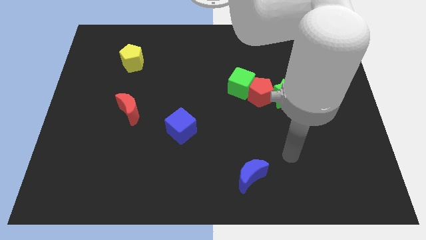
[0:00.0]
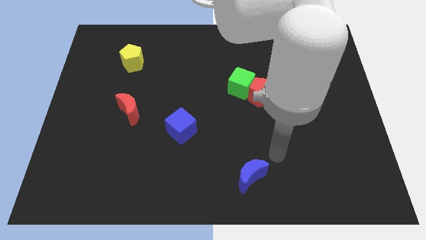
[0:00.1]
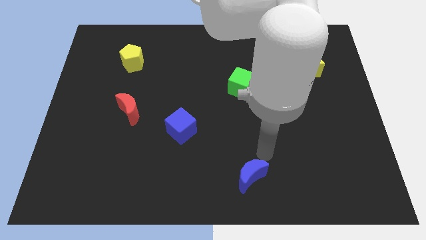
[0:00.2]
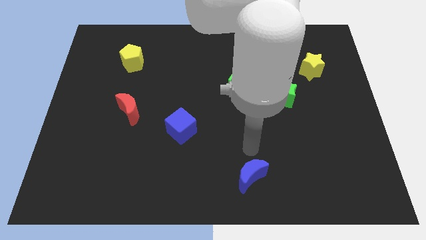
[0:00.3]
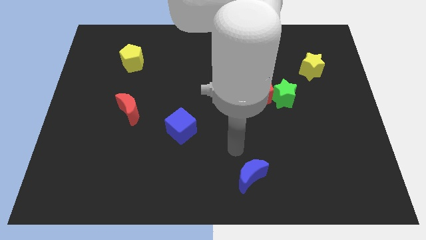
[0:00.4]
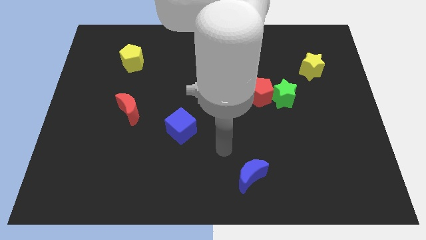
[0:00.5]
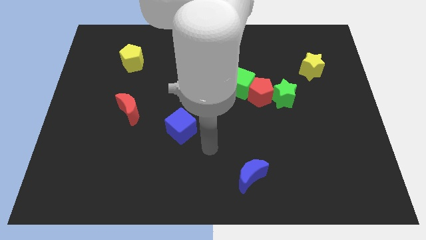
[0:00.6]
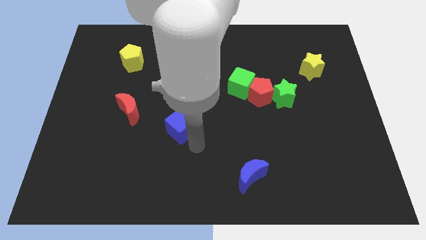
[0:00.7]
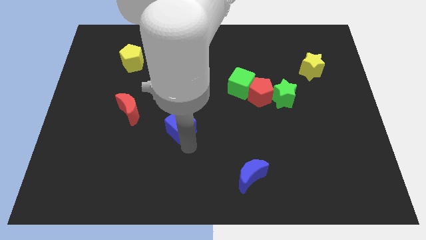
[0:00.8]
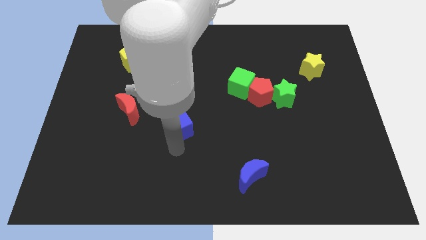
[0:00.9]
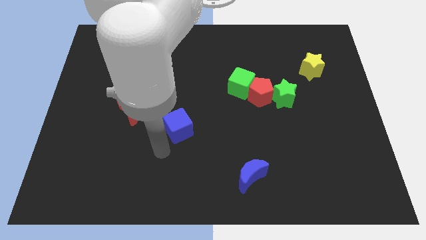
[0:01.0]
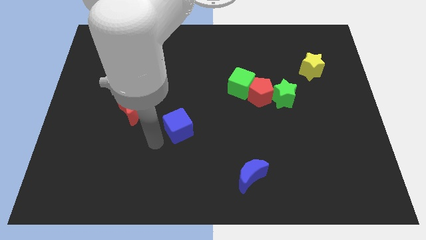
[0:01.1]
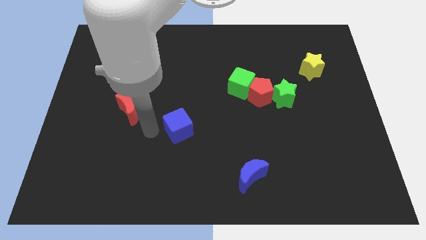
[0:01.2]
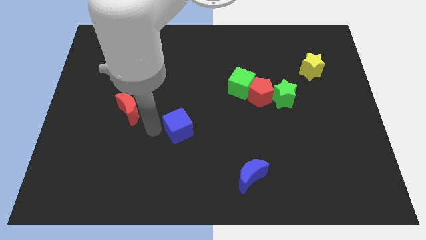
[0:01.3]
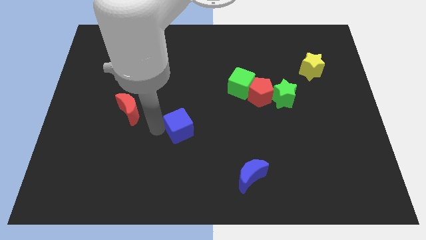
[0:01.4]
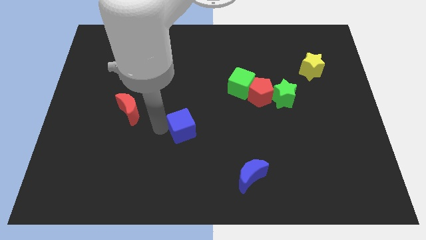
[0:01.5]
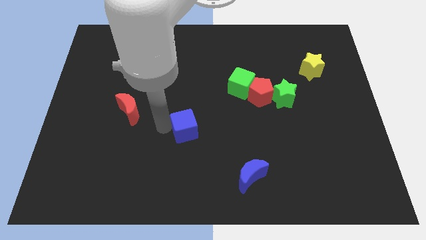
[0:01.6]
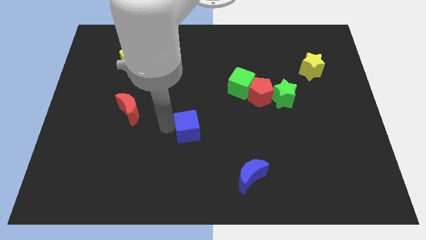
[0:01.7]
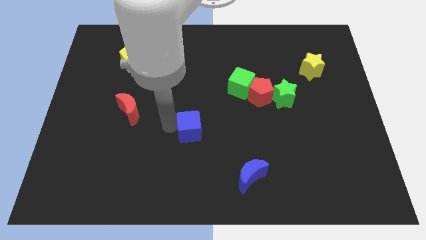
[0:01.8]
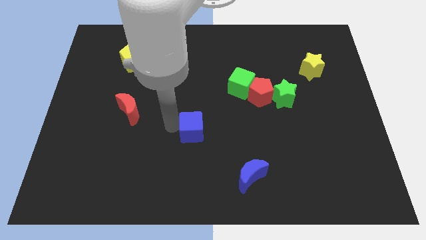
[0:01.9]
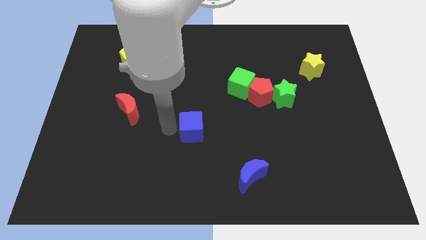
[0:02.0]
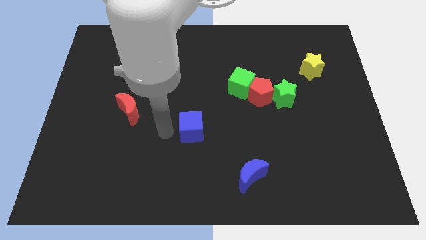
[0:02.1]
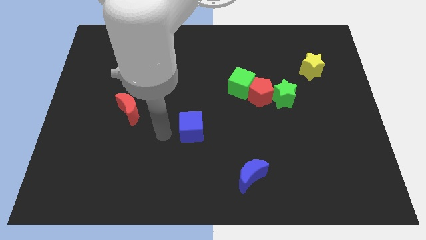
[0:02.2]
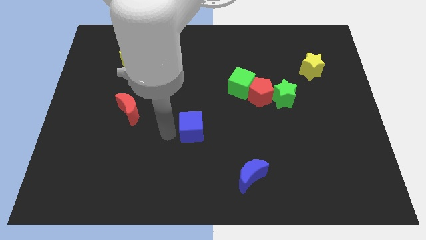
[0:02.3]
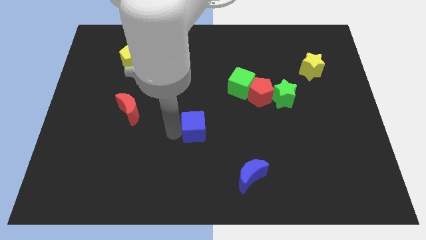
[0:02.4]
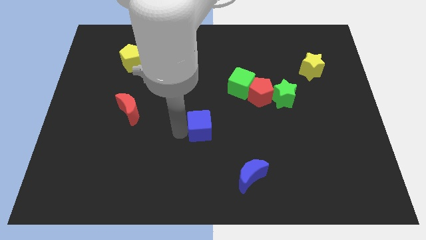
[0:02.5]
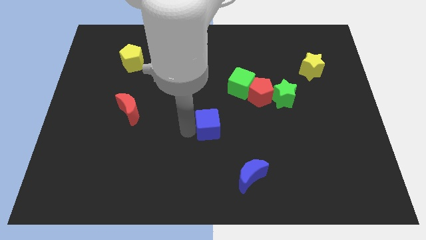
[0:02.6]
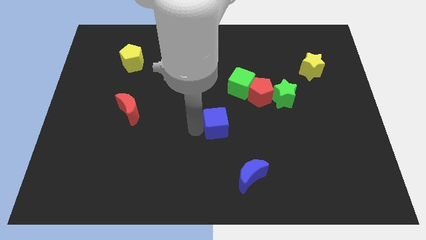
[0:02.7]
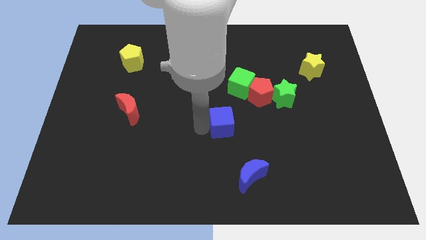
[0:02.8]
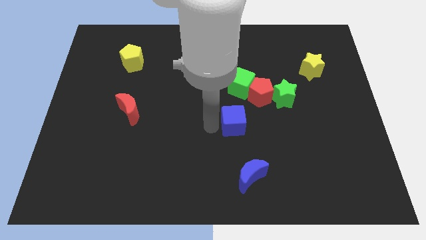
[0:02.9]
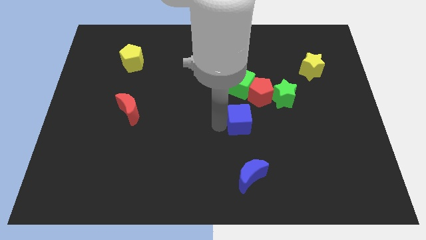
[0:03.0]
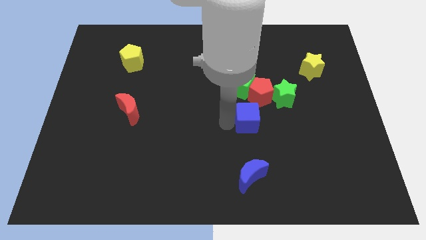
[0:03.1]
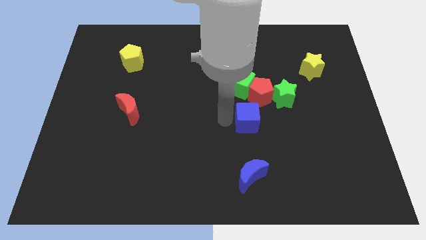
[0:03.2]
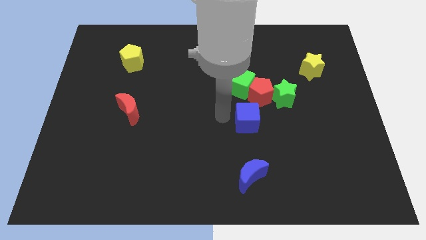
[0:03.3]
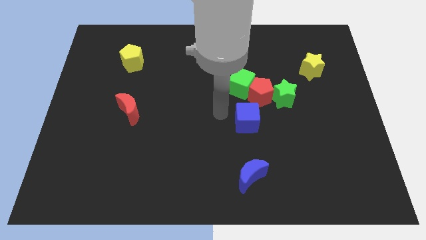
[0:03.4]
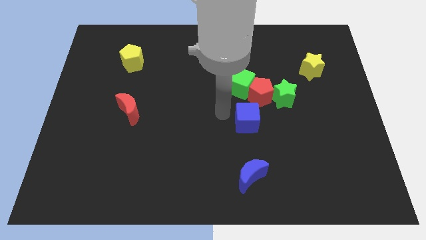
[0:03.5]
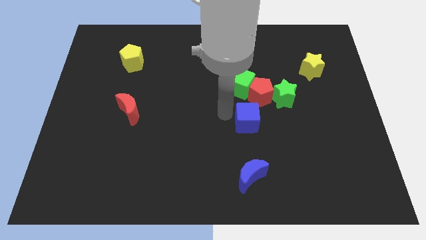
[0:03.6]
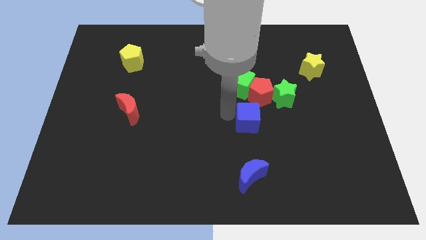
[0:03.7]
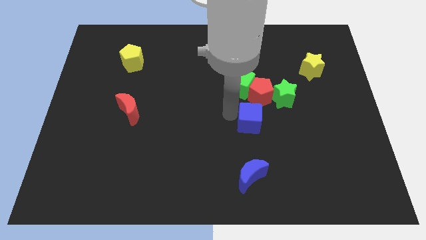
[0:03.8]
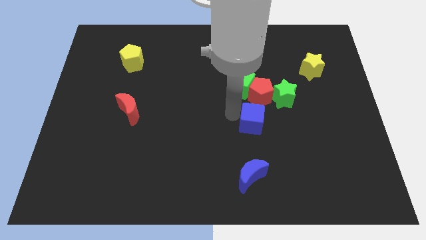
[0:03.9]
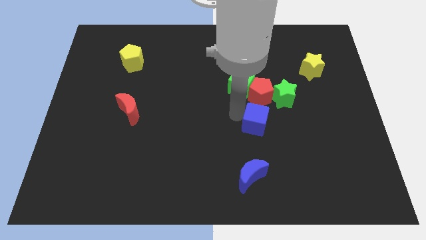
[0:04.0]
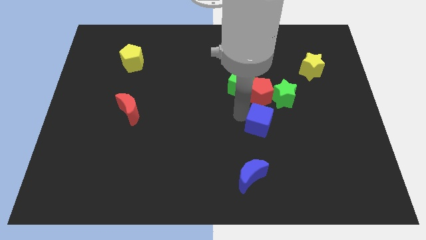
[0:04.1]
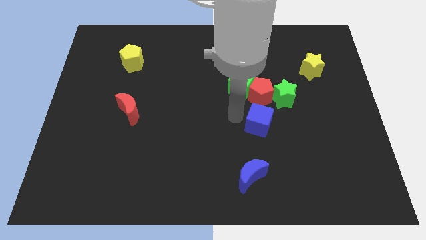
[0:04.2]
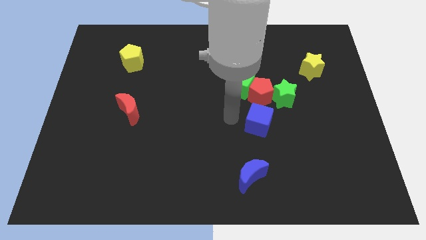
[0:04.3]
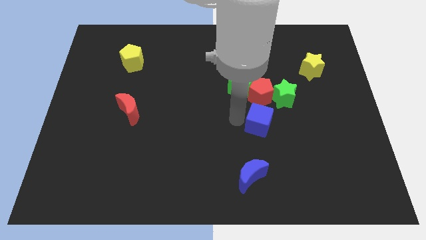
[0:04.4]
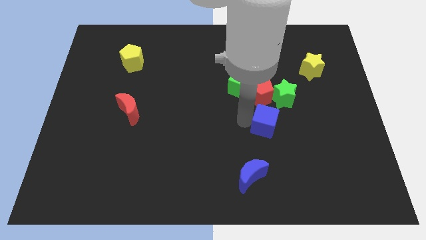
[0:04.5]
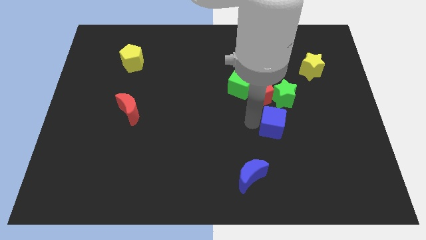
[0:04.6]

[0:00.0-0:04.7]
push the blue cube to the right

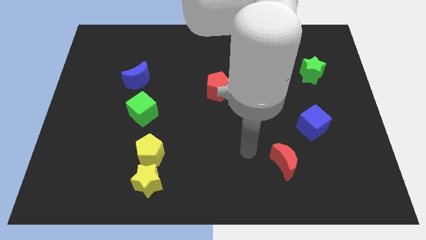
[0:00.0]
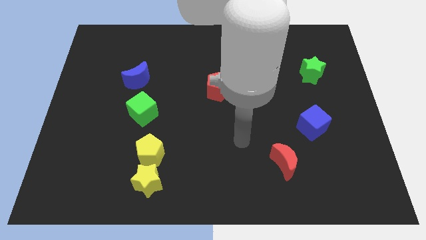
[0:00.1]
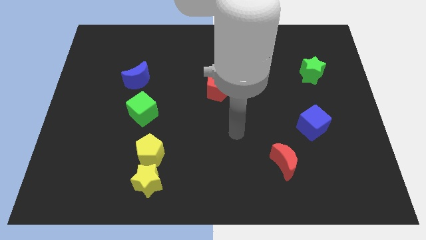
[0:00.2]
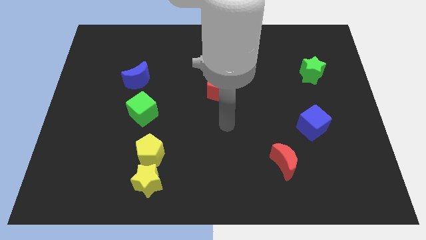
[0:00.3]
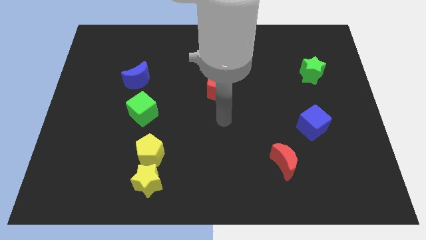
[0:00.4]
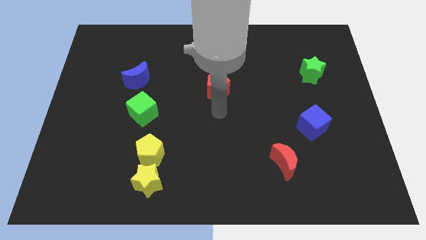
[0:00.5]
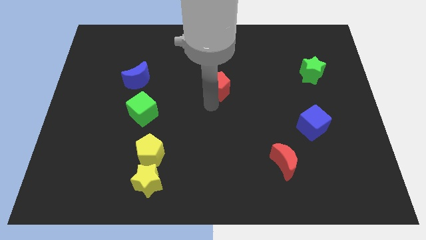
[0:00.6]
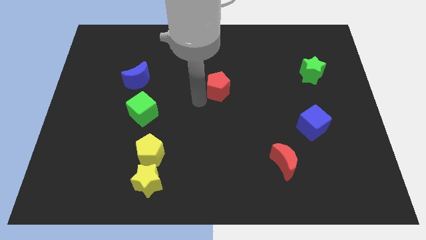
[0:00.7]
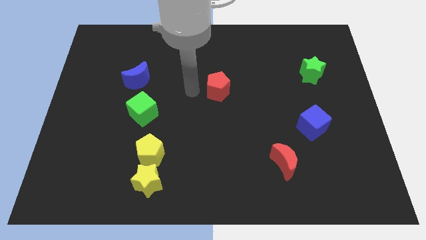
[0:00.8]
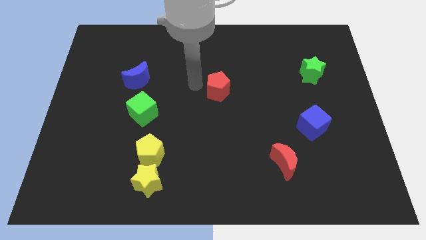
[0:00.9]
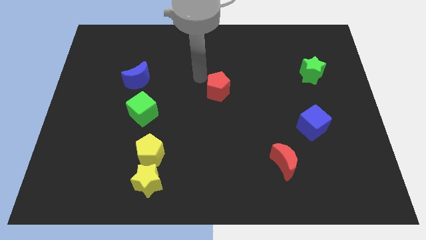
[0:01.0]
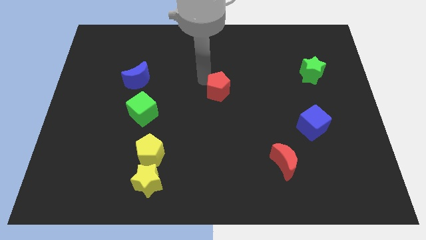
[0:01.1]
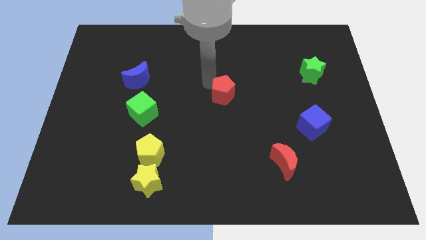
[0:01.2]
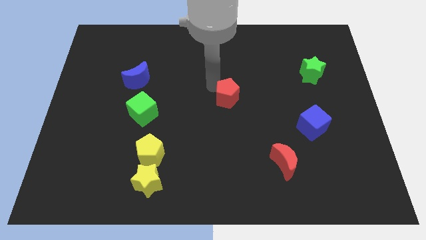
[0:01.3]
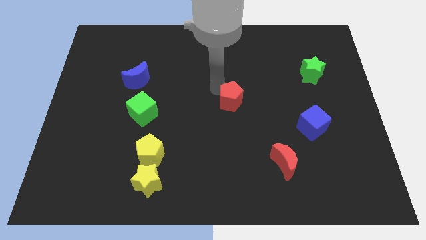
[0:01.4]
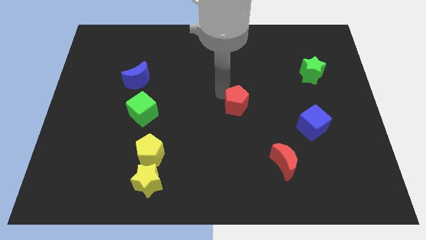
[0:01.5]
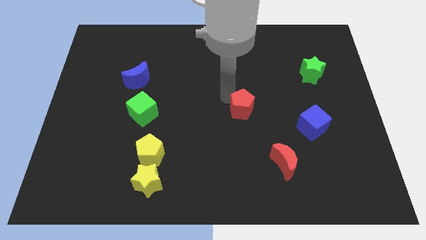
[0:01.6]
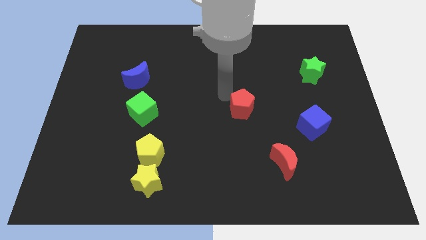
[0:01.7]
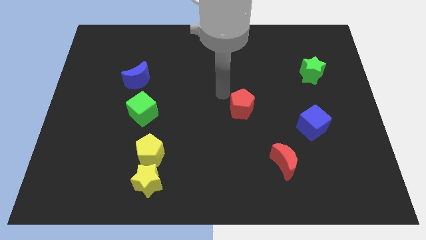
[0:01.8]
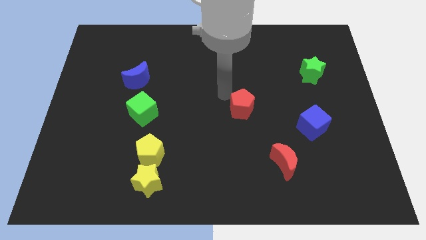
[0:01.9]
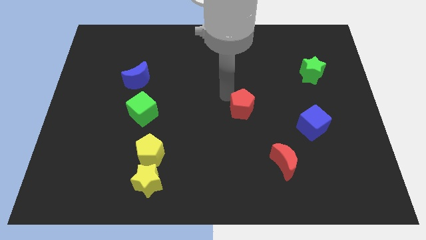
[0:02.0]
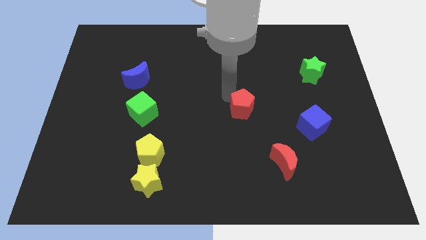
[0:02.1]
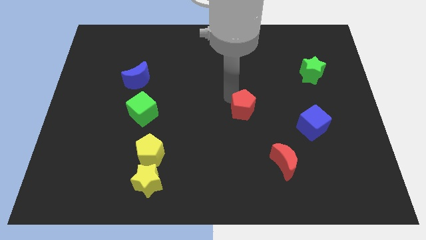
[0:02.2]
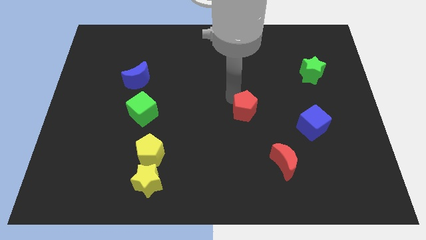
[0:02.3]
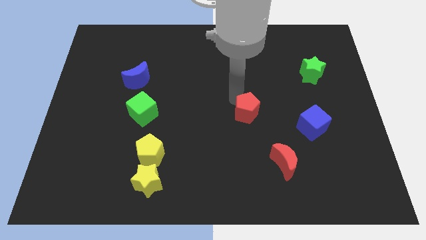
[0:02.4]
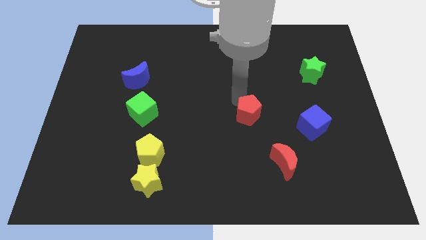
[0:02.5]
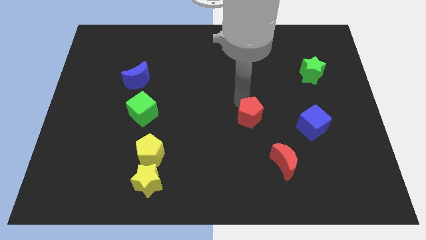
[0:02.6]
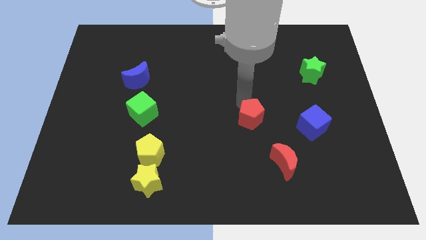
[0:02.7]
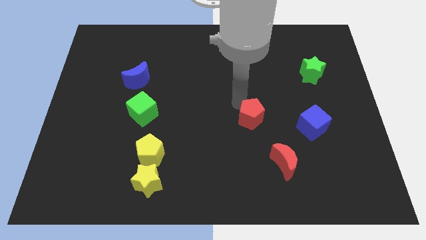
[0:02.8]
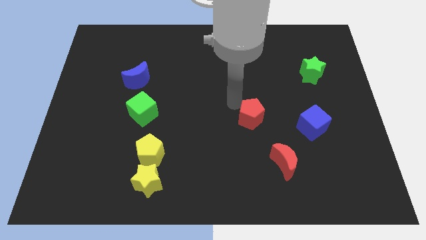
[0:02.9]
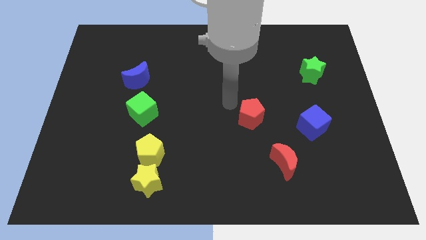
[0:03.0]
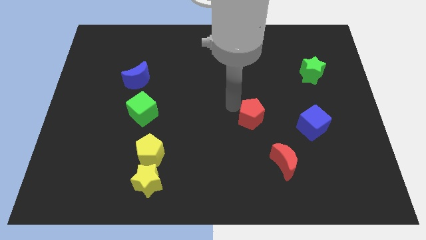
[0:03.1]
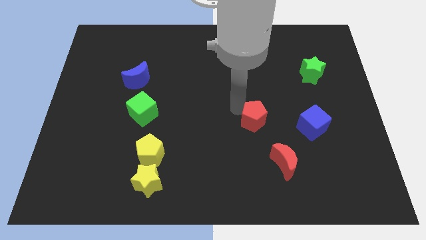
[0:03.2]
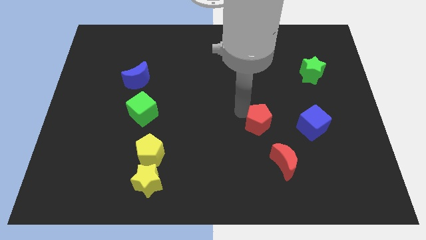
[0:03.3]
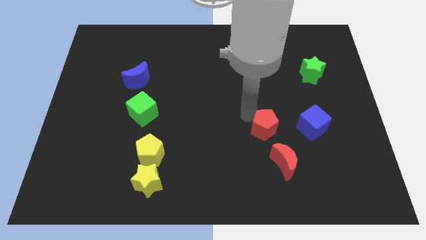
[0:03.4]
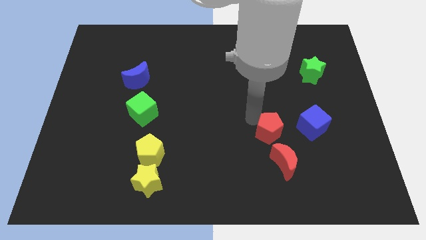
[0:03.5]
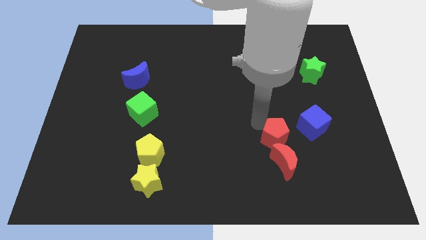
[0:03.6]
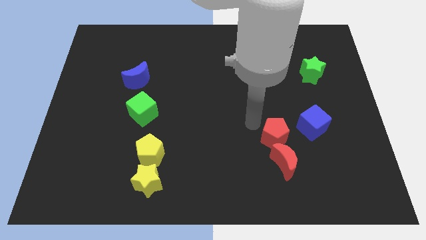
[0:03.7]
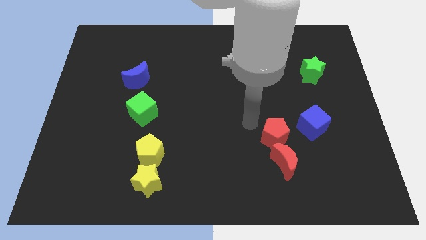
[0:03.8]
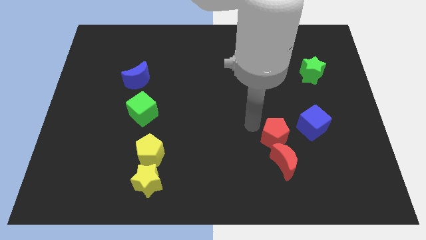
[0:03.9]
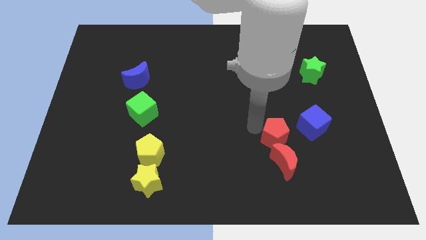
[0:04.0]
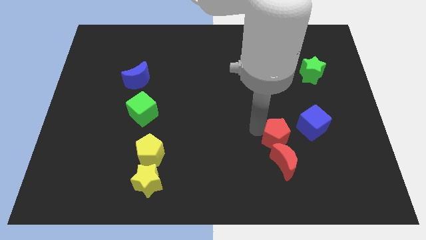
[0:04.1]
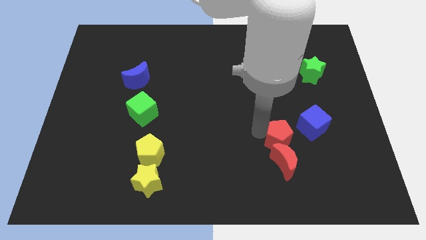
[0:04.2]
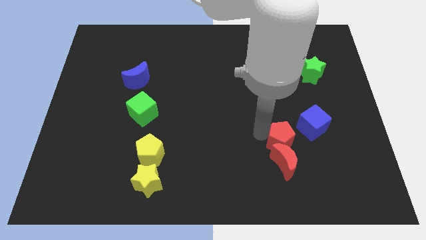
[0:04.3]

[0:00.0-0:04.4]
move the red pentagon downwards and to the right diagonally
